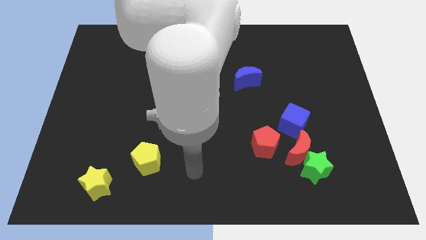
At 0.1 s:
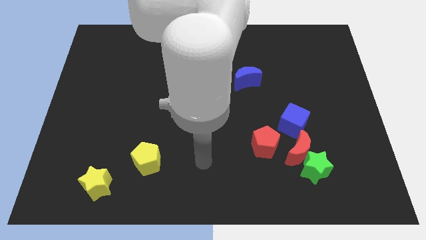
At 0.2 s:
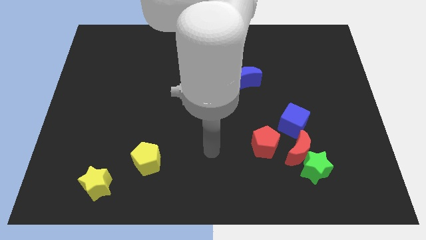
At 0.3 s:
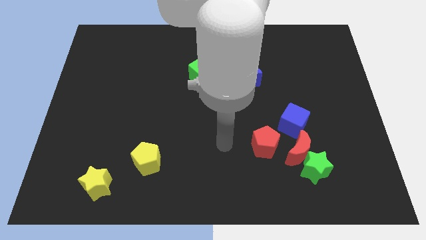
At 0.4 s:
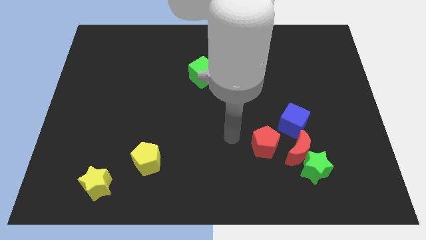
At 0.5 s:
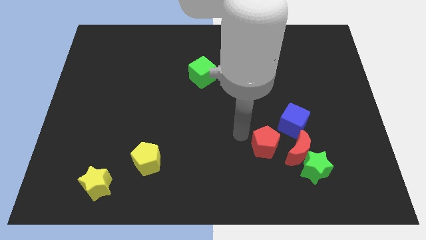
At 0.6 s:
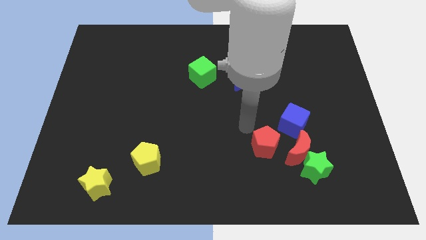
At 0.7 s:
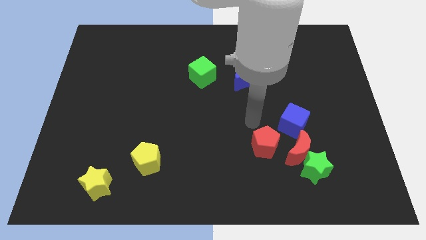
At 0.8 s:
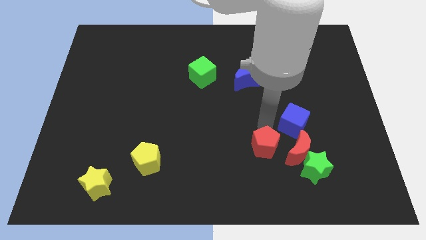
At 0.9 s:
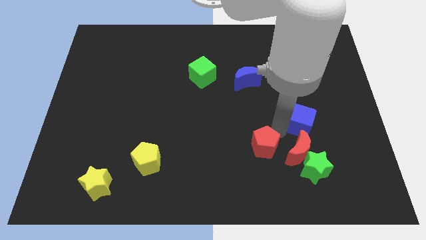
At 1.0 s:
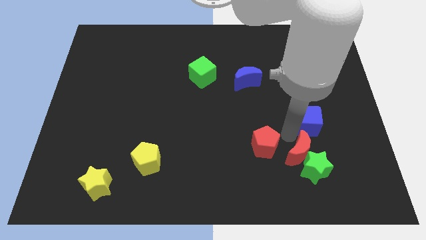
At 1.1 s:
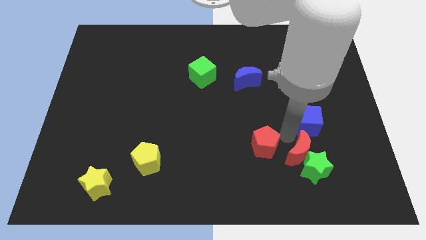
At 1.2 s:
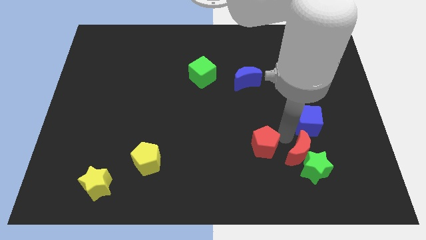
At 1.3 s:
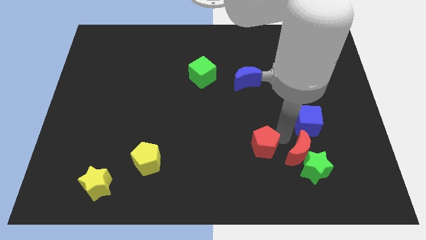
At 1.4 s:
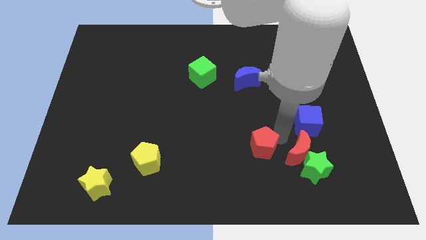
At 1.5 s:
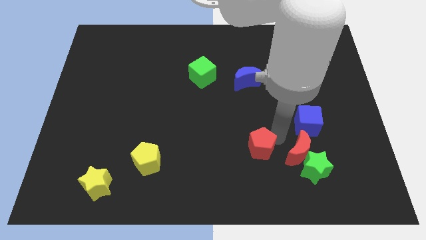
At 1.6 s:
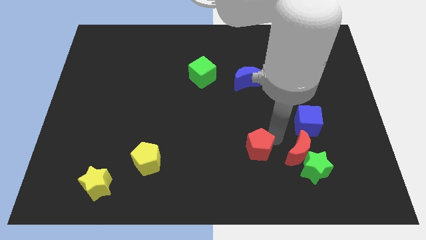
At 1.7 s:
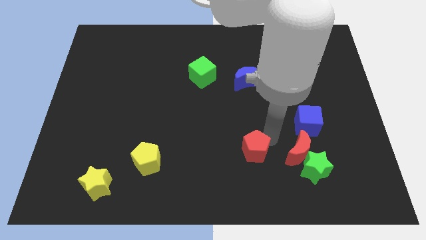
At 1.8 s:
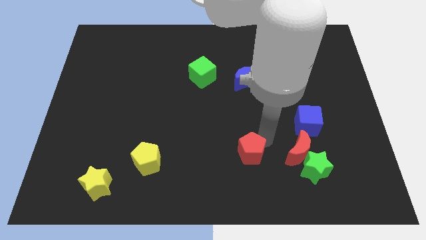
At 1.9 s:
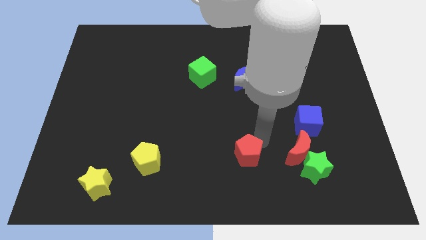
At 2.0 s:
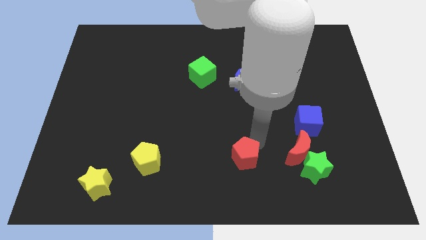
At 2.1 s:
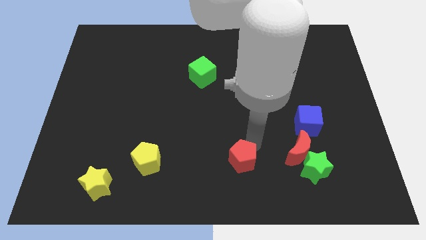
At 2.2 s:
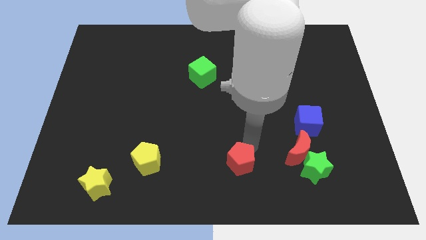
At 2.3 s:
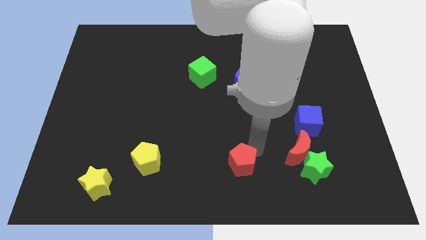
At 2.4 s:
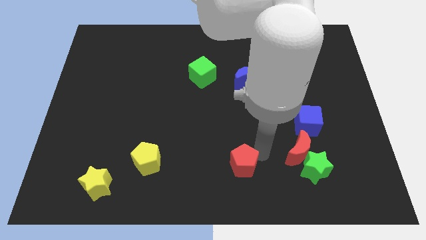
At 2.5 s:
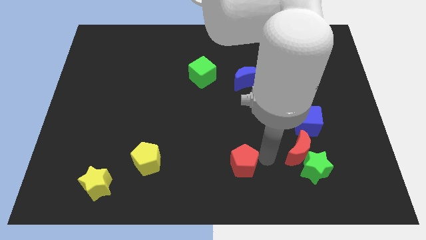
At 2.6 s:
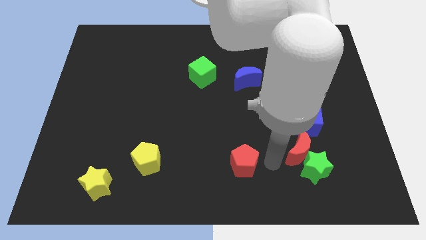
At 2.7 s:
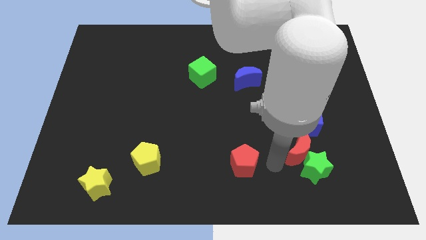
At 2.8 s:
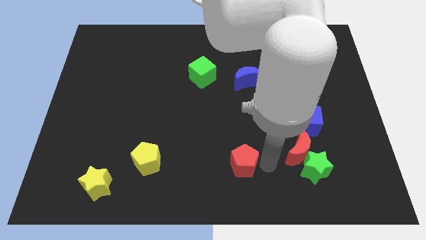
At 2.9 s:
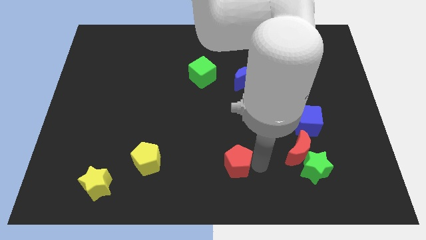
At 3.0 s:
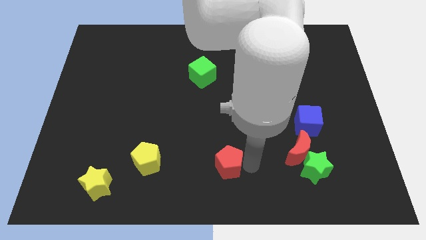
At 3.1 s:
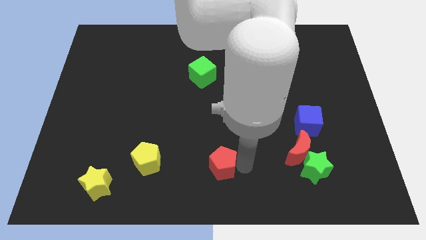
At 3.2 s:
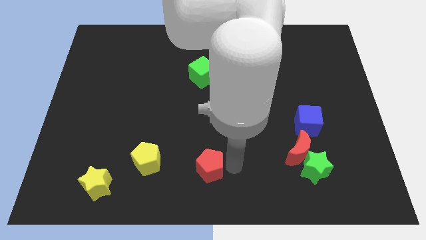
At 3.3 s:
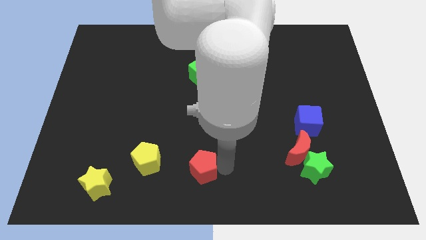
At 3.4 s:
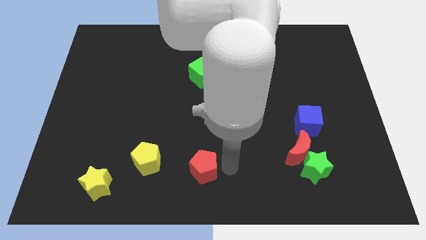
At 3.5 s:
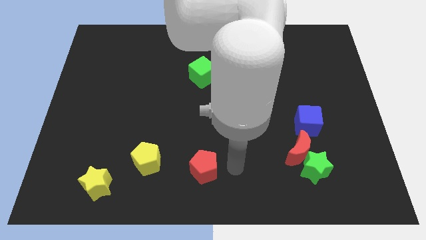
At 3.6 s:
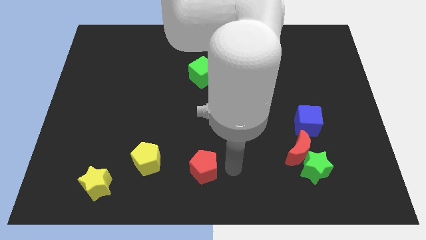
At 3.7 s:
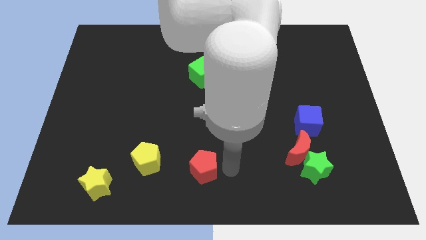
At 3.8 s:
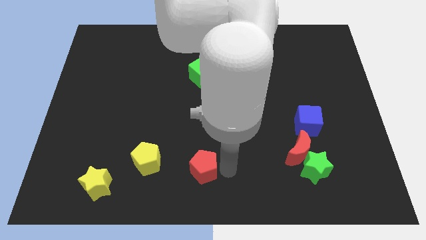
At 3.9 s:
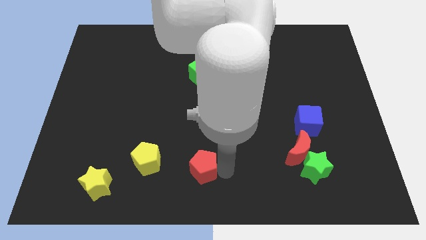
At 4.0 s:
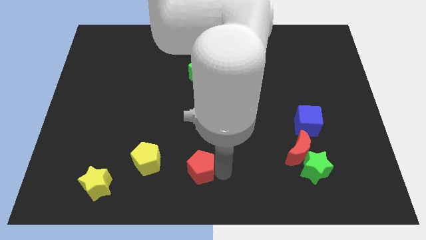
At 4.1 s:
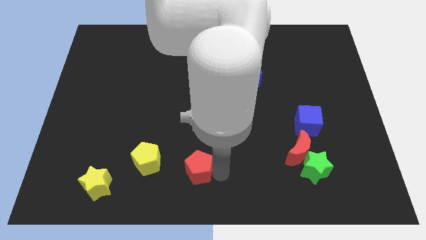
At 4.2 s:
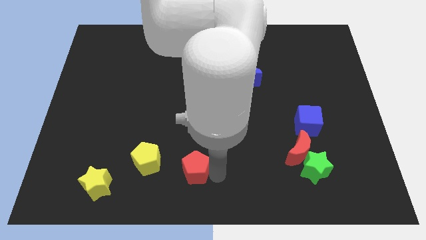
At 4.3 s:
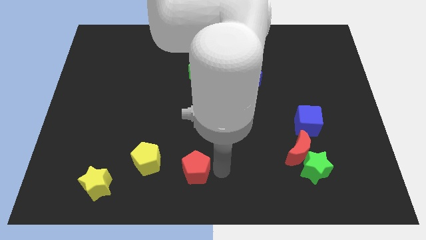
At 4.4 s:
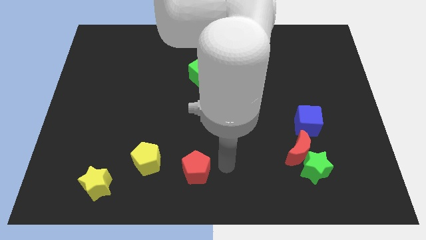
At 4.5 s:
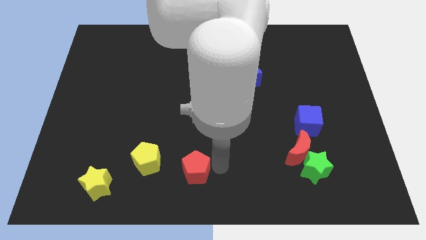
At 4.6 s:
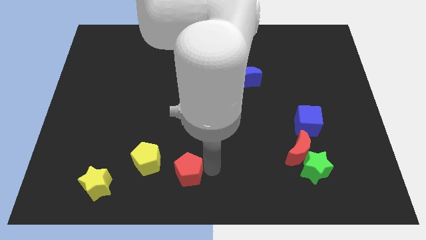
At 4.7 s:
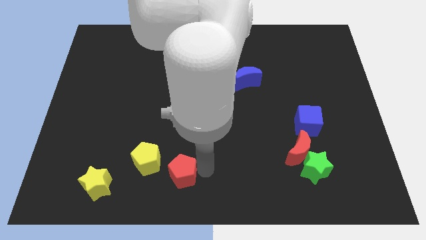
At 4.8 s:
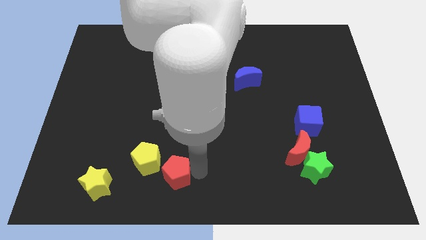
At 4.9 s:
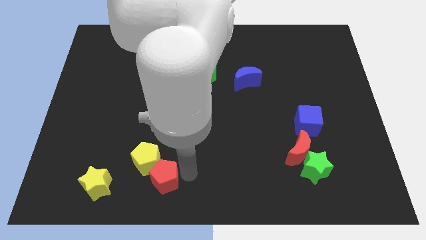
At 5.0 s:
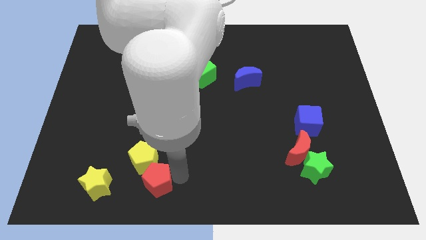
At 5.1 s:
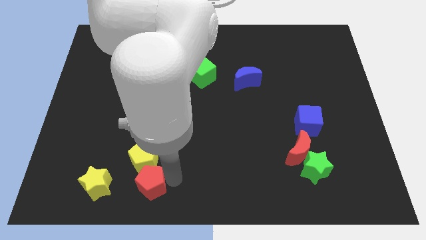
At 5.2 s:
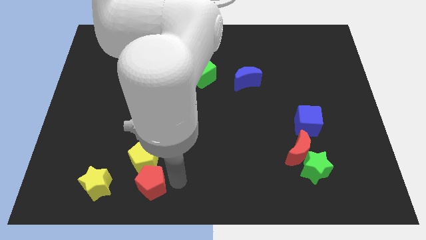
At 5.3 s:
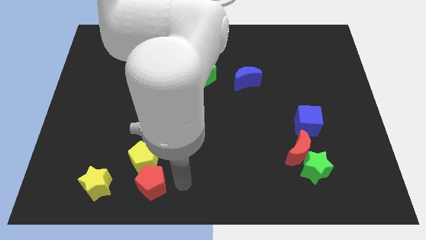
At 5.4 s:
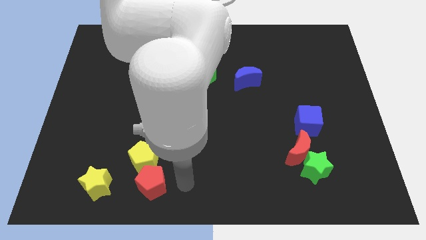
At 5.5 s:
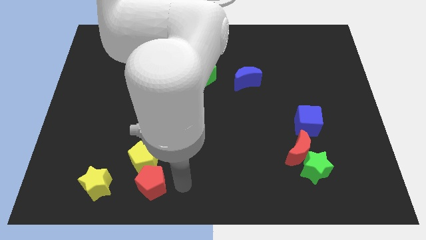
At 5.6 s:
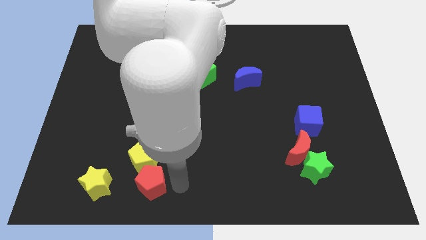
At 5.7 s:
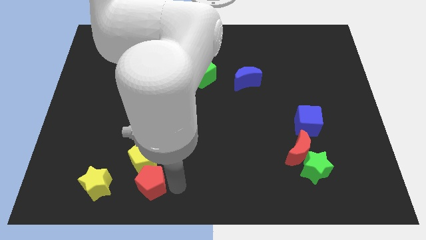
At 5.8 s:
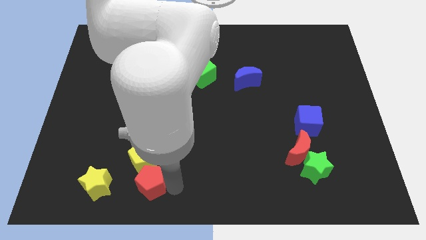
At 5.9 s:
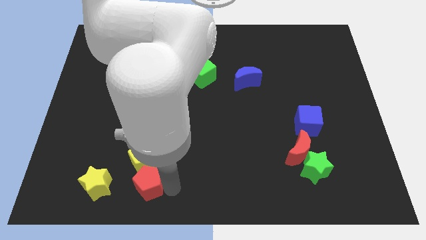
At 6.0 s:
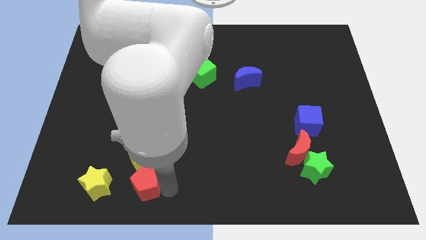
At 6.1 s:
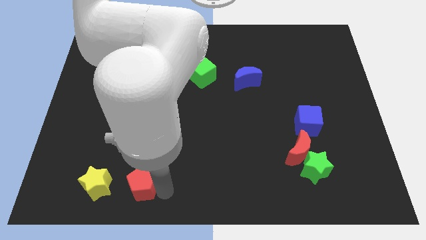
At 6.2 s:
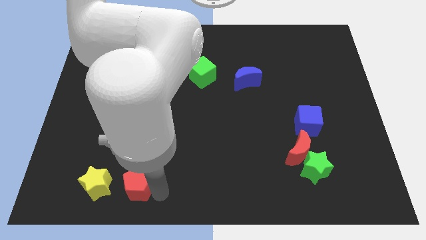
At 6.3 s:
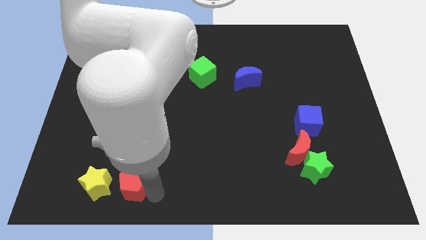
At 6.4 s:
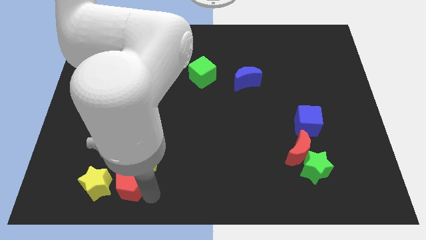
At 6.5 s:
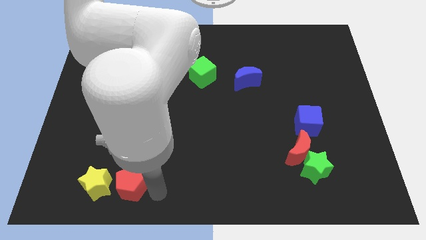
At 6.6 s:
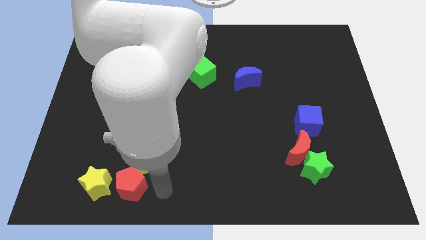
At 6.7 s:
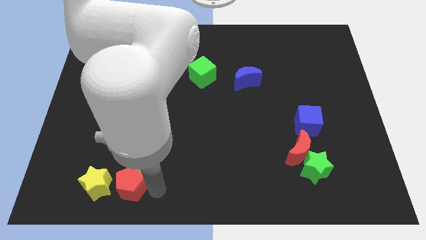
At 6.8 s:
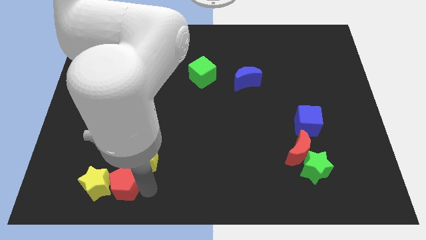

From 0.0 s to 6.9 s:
move the red pentagon to the yellow star
